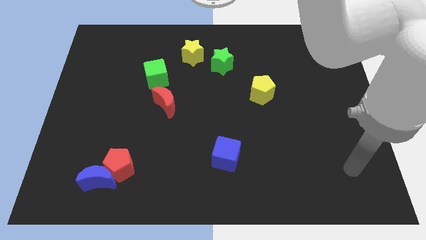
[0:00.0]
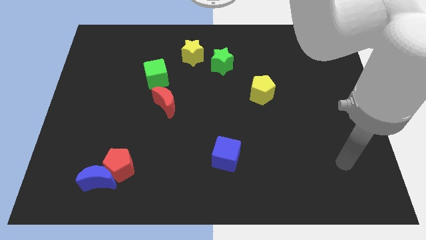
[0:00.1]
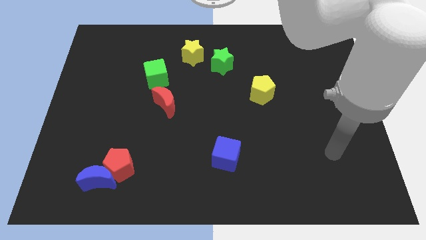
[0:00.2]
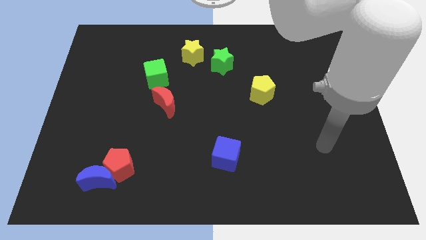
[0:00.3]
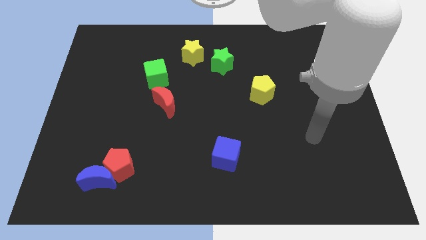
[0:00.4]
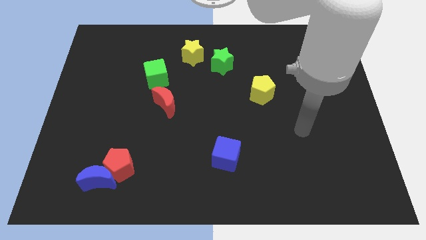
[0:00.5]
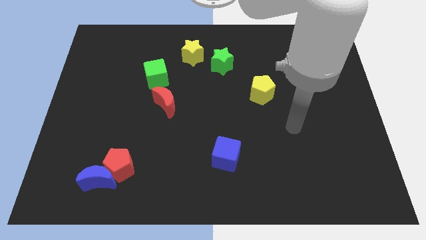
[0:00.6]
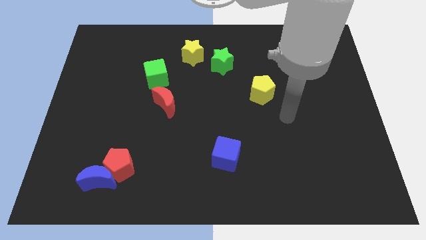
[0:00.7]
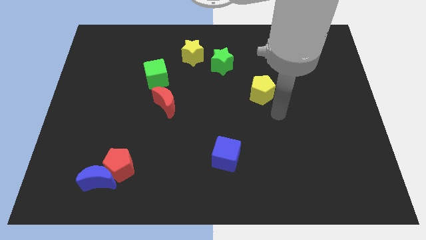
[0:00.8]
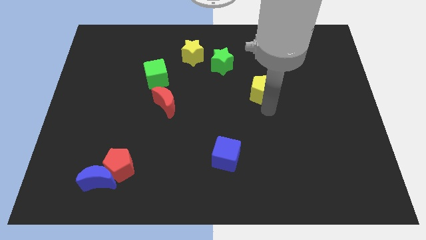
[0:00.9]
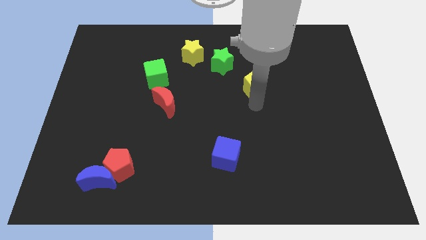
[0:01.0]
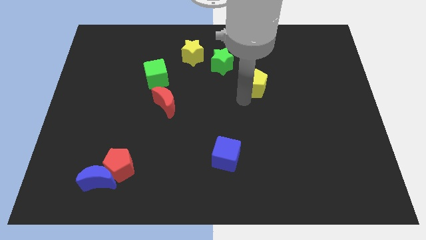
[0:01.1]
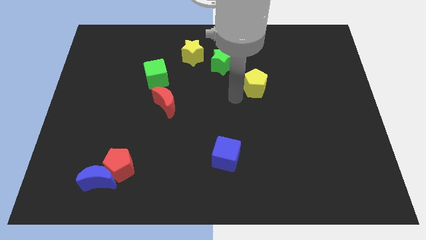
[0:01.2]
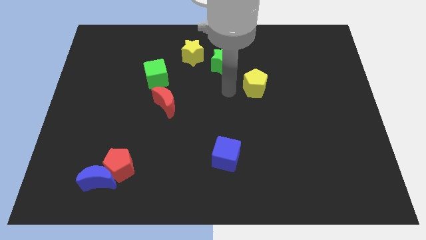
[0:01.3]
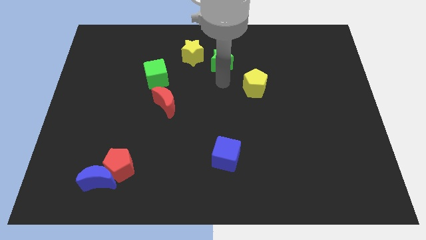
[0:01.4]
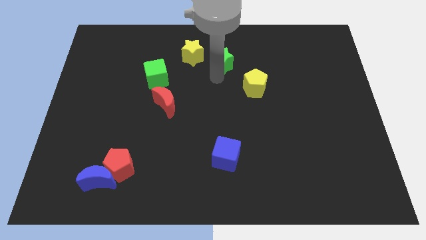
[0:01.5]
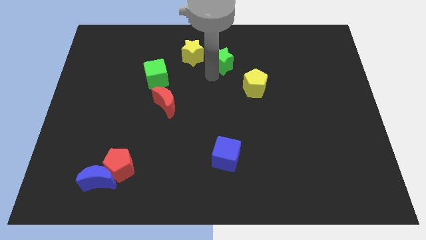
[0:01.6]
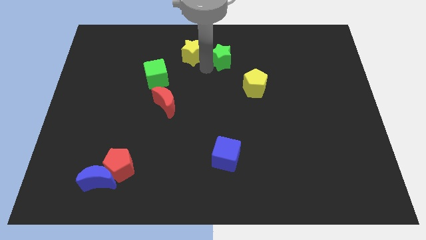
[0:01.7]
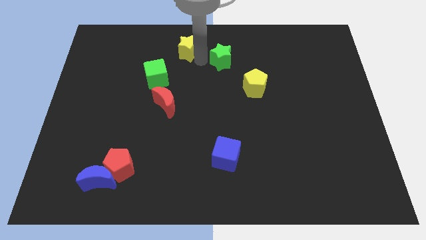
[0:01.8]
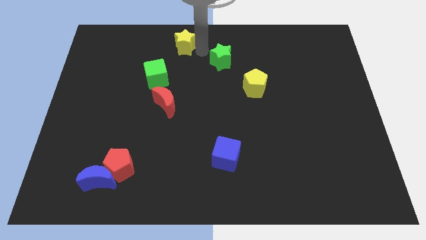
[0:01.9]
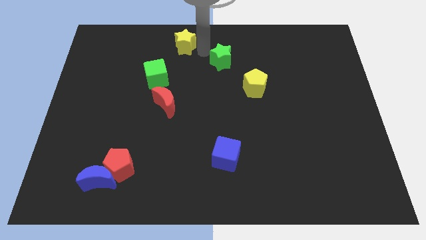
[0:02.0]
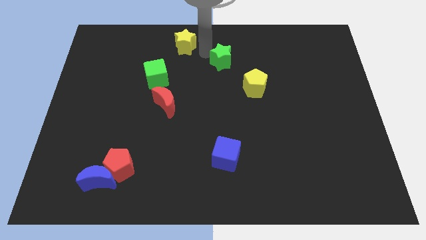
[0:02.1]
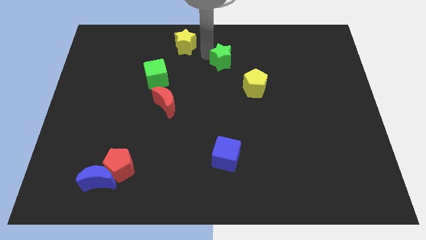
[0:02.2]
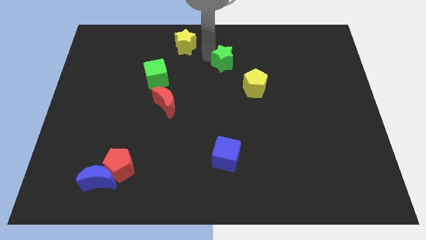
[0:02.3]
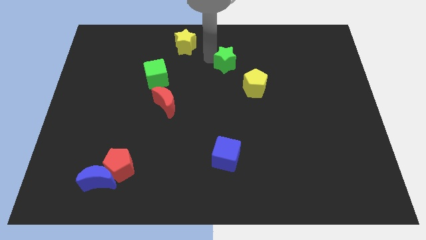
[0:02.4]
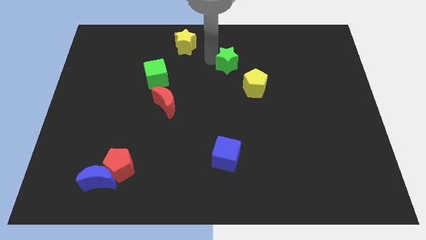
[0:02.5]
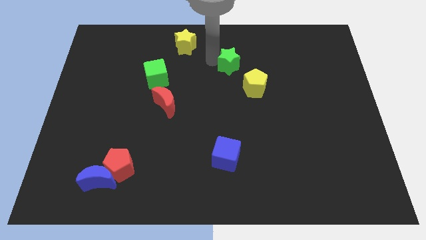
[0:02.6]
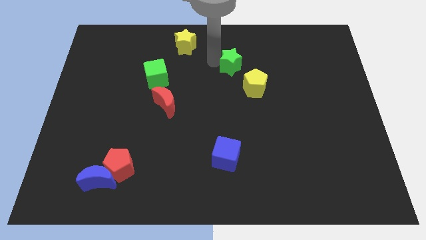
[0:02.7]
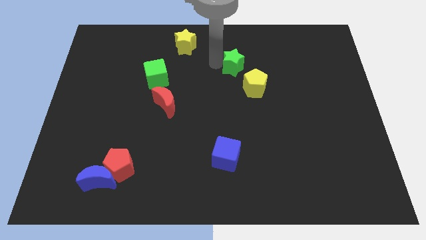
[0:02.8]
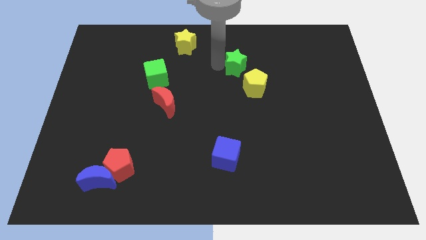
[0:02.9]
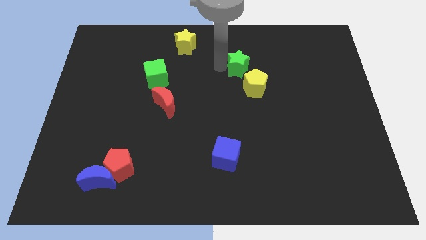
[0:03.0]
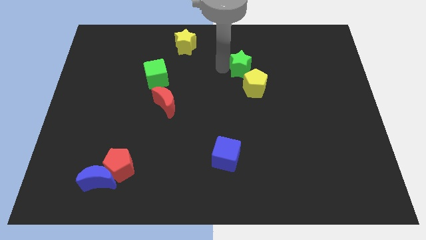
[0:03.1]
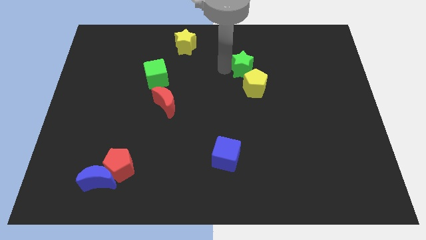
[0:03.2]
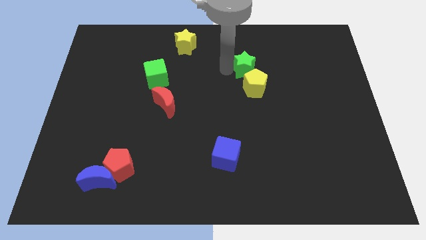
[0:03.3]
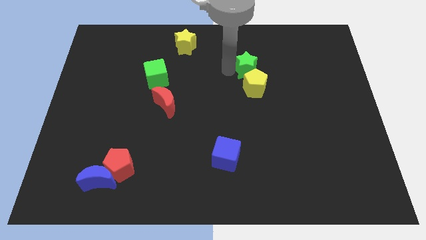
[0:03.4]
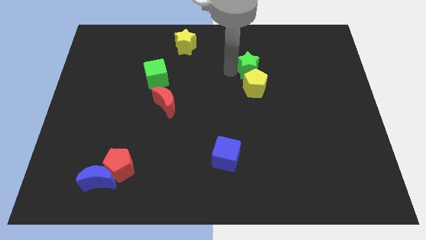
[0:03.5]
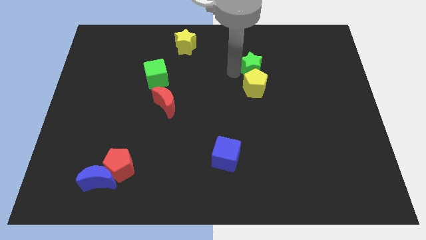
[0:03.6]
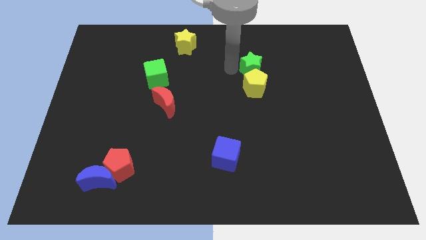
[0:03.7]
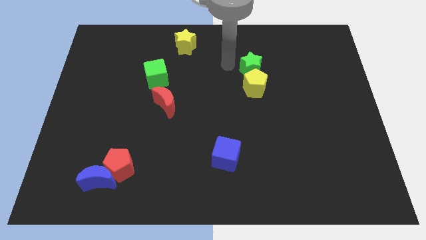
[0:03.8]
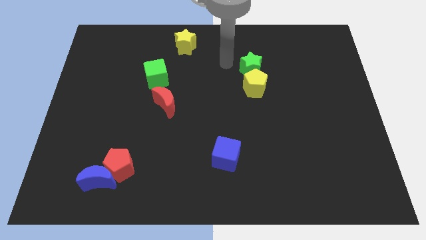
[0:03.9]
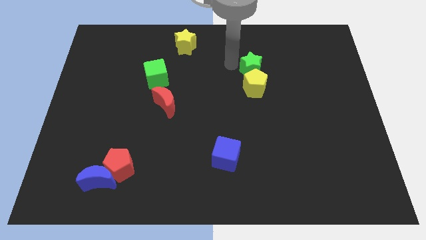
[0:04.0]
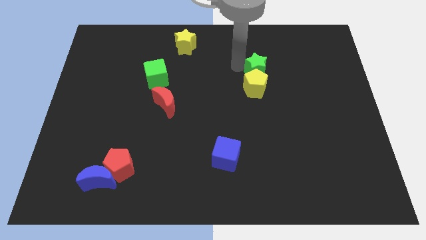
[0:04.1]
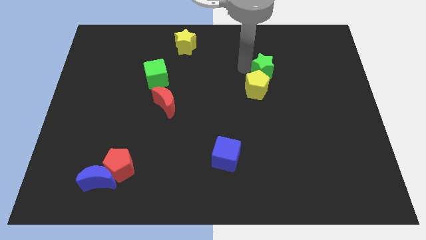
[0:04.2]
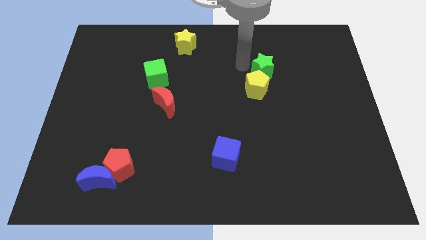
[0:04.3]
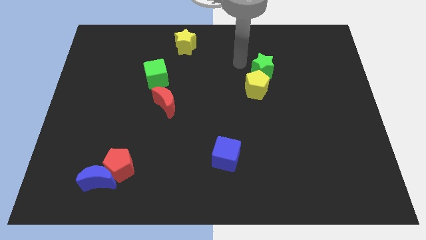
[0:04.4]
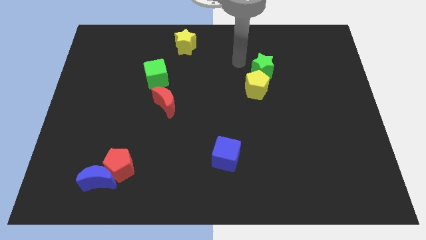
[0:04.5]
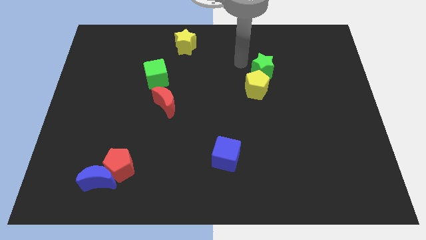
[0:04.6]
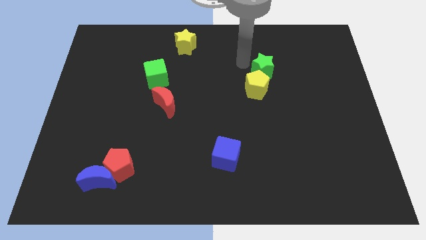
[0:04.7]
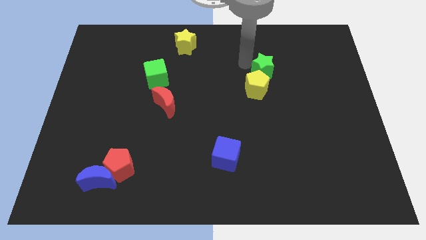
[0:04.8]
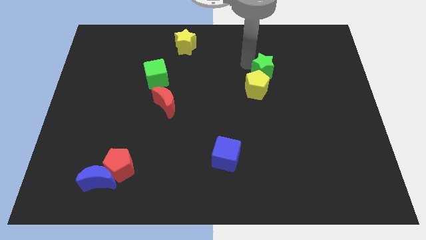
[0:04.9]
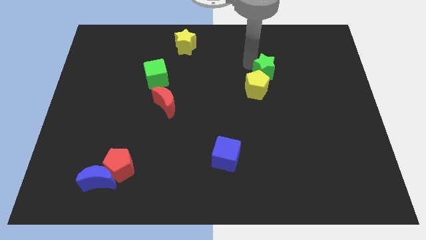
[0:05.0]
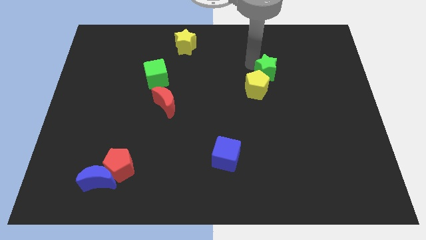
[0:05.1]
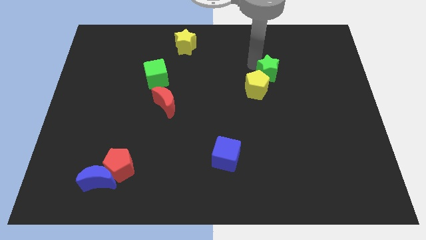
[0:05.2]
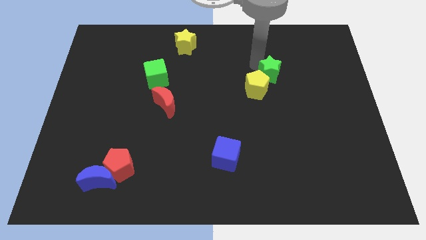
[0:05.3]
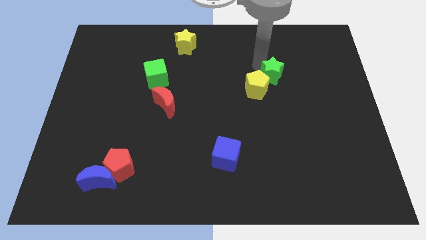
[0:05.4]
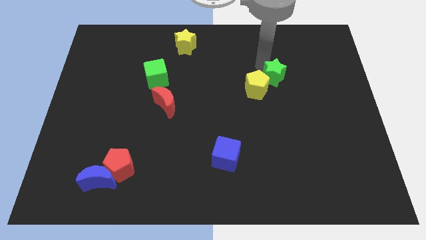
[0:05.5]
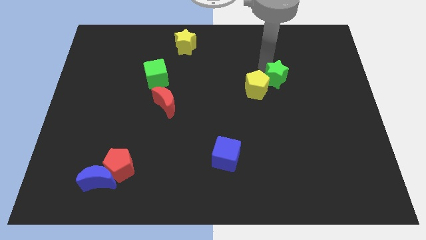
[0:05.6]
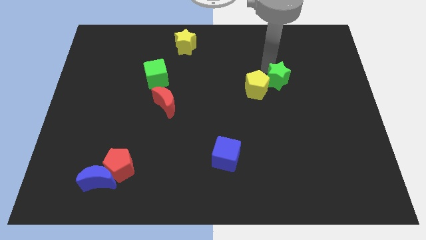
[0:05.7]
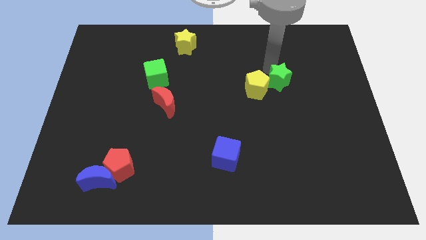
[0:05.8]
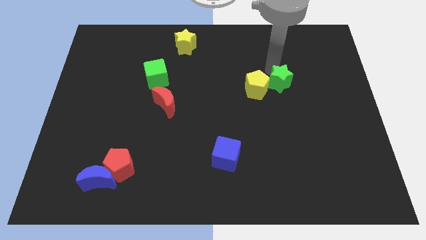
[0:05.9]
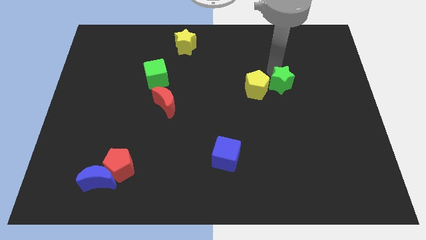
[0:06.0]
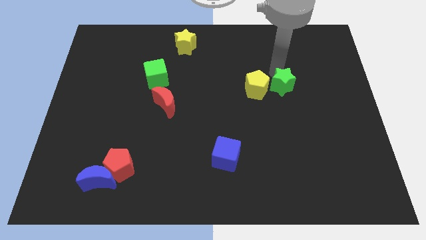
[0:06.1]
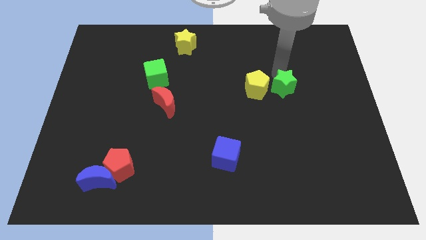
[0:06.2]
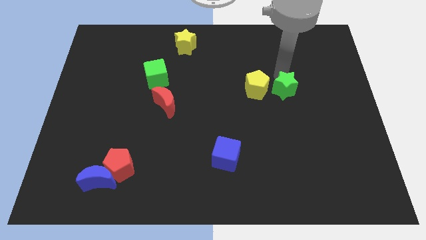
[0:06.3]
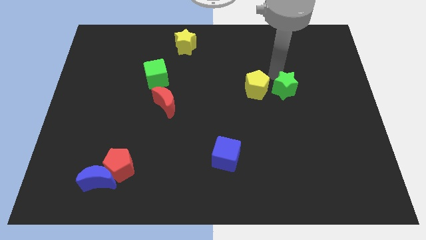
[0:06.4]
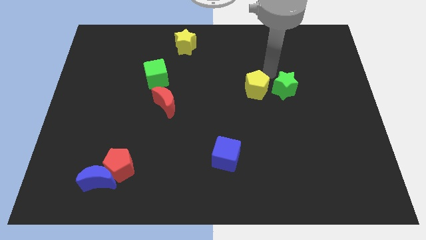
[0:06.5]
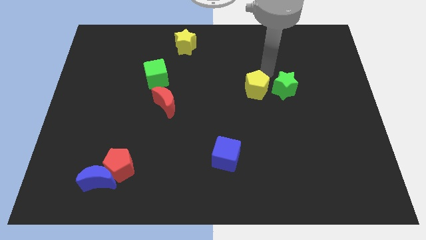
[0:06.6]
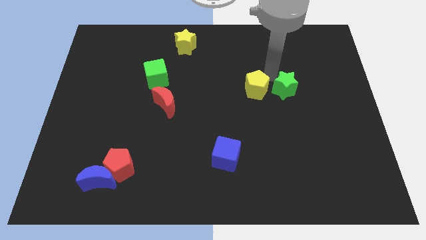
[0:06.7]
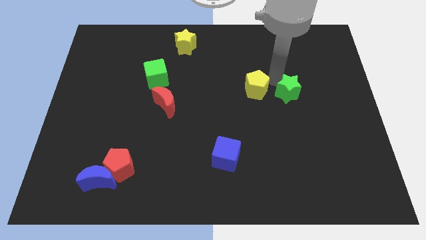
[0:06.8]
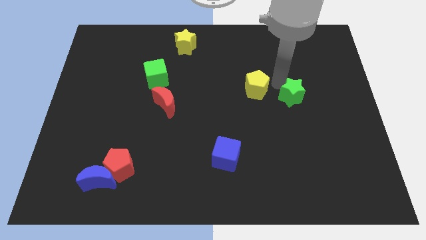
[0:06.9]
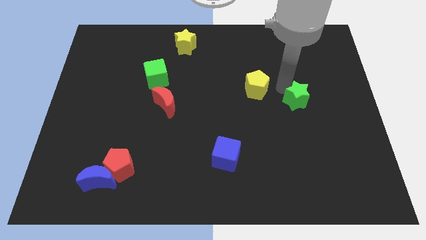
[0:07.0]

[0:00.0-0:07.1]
push the green star downwards and then to the right

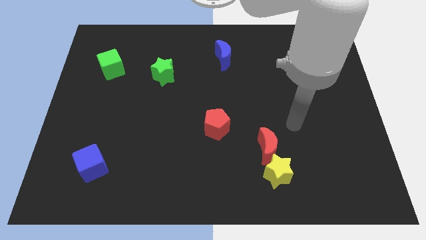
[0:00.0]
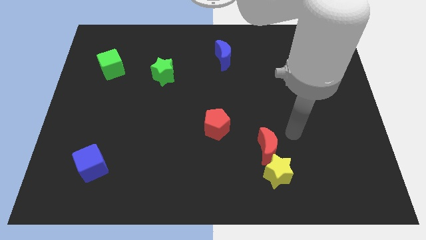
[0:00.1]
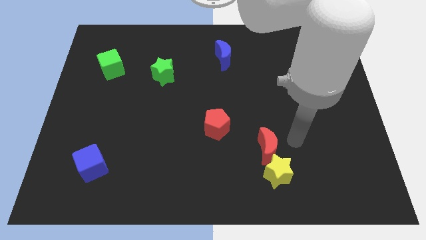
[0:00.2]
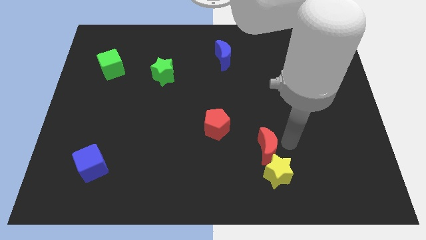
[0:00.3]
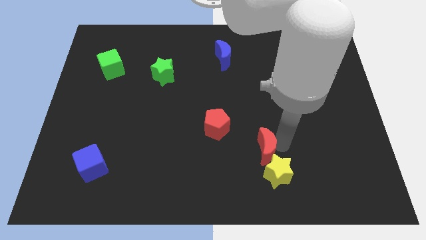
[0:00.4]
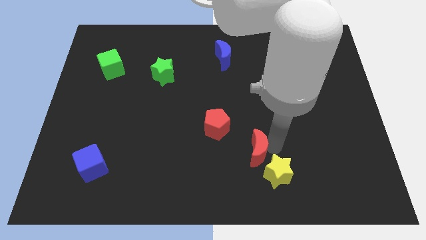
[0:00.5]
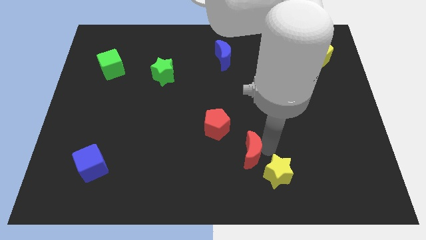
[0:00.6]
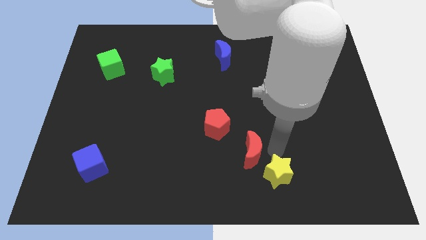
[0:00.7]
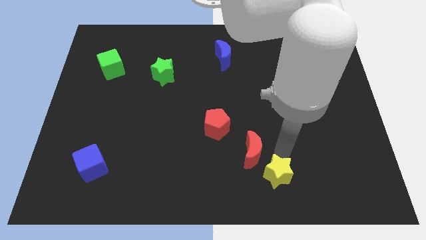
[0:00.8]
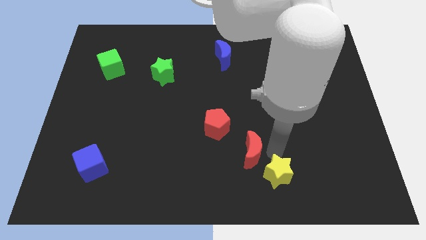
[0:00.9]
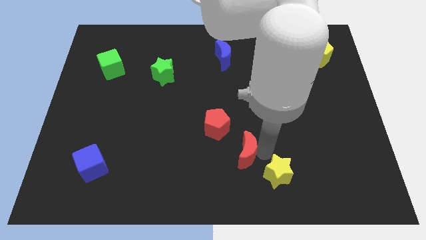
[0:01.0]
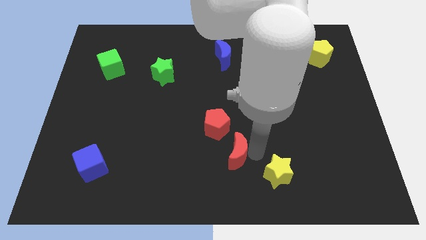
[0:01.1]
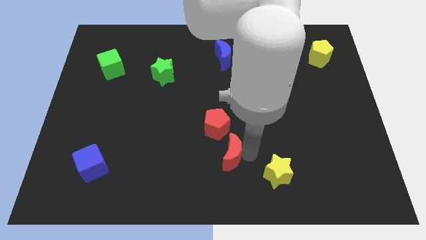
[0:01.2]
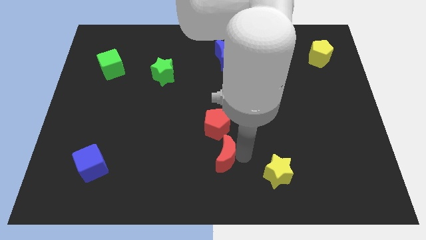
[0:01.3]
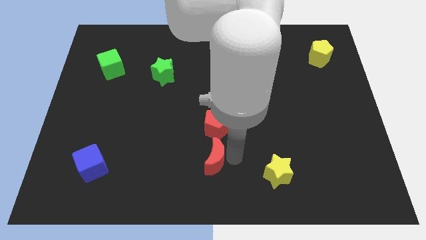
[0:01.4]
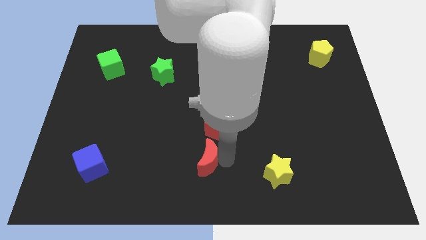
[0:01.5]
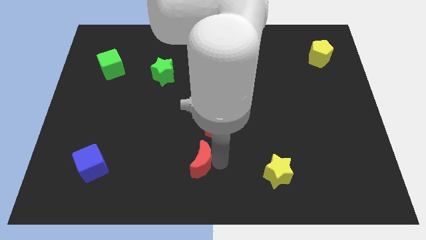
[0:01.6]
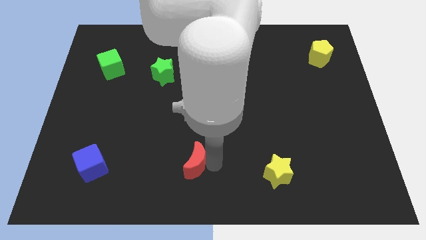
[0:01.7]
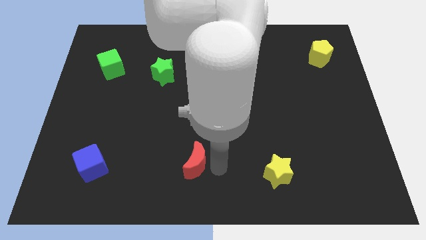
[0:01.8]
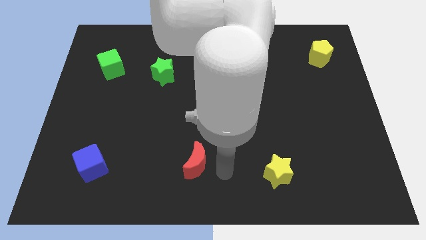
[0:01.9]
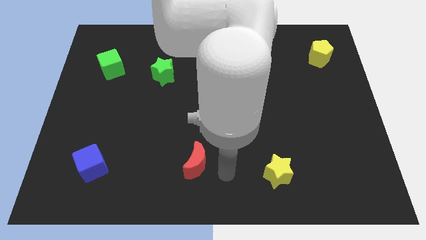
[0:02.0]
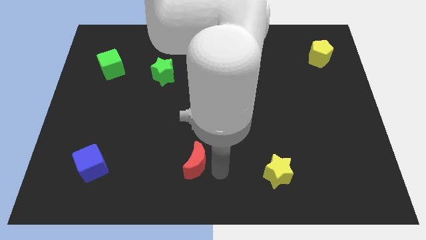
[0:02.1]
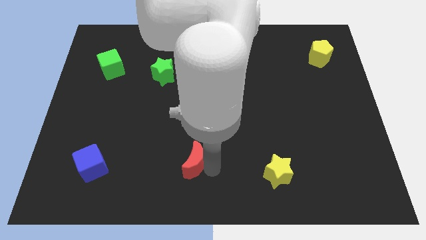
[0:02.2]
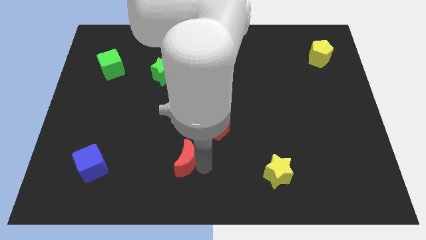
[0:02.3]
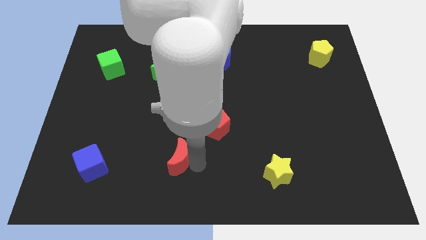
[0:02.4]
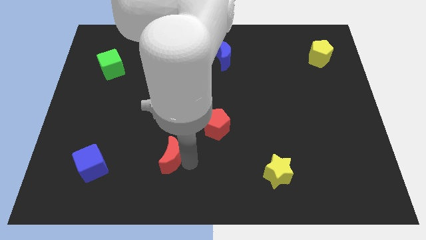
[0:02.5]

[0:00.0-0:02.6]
move the red moon left
